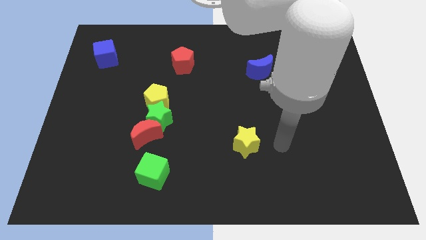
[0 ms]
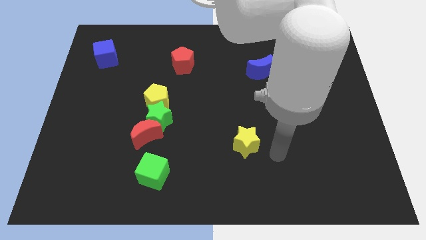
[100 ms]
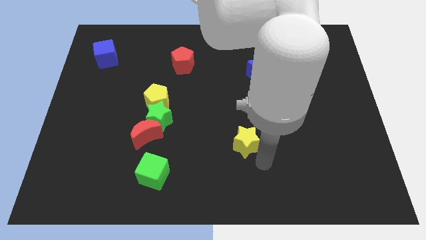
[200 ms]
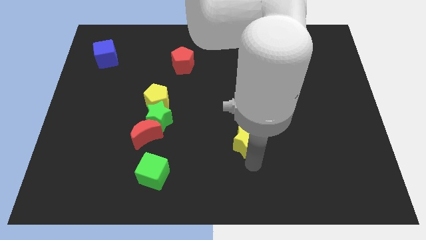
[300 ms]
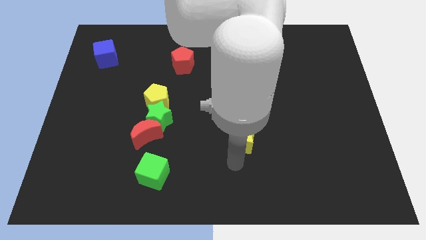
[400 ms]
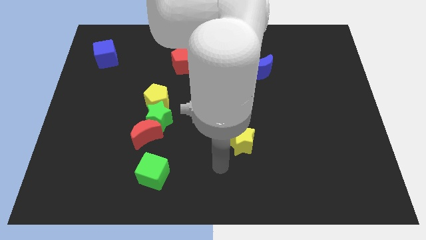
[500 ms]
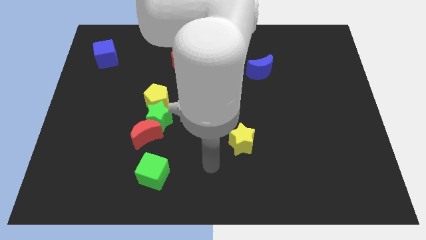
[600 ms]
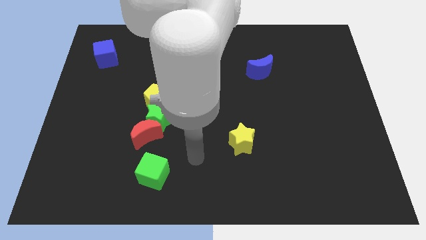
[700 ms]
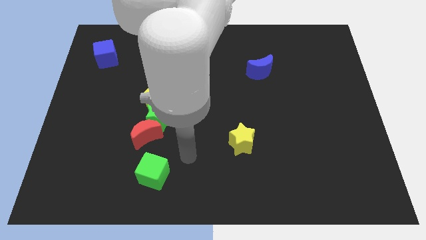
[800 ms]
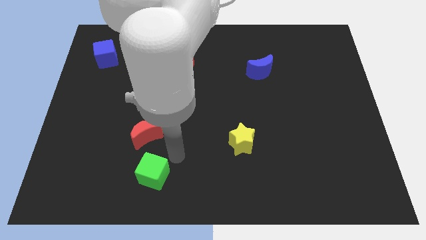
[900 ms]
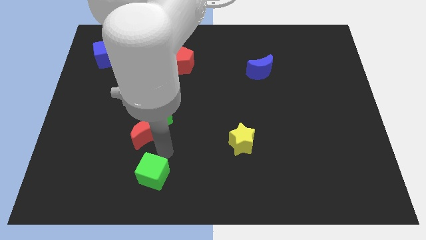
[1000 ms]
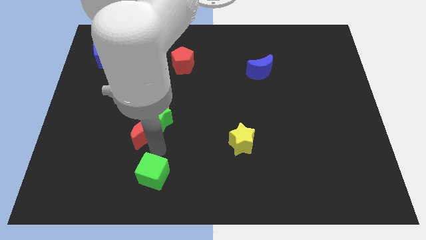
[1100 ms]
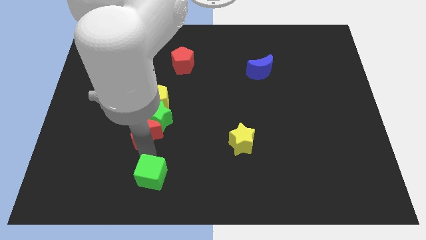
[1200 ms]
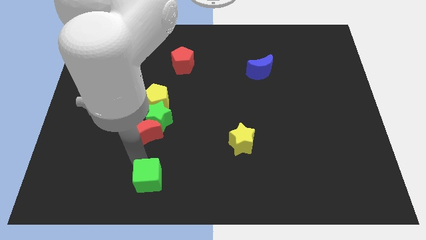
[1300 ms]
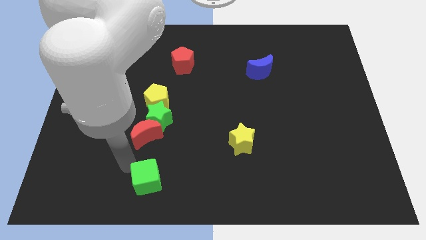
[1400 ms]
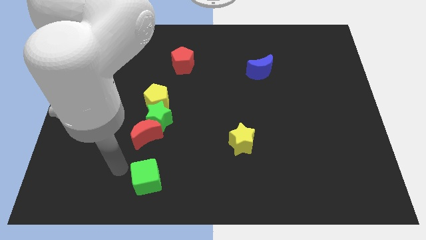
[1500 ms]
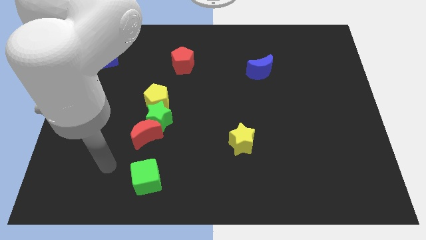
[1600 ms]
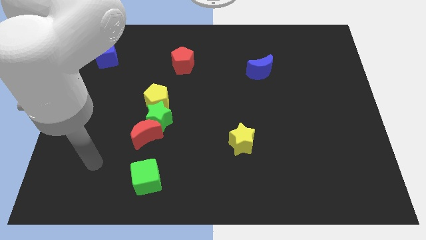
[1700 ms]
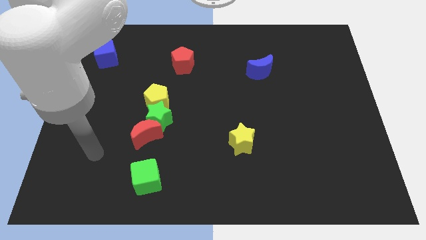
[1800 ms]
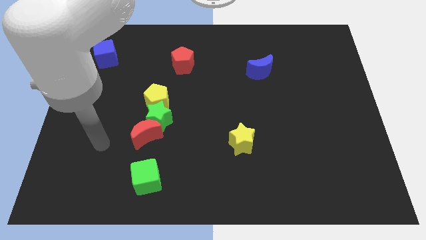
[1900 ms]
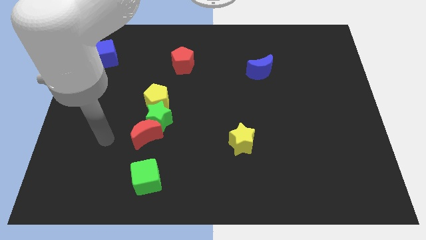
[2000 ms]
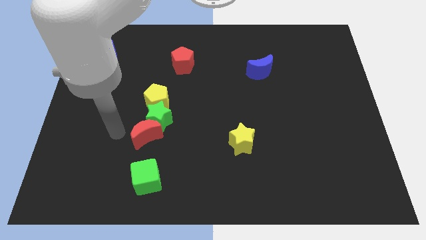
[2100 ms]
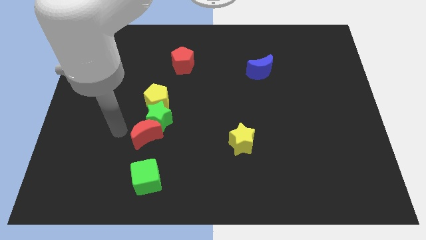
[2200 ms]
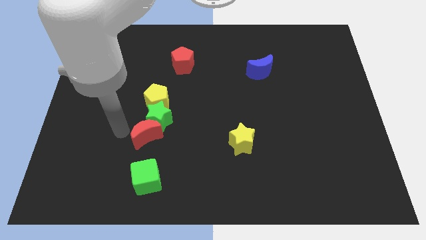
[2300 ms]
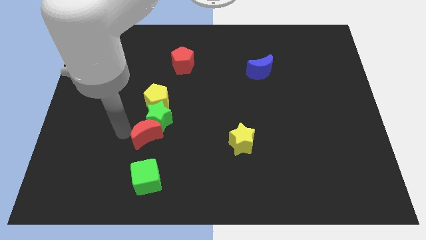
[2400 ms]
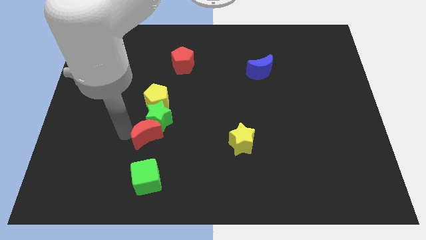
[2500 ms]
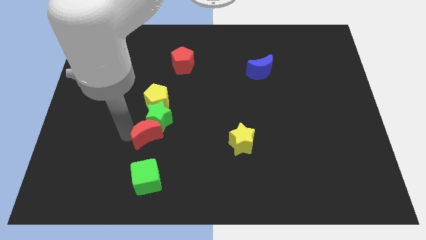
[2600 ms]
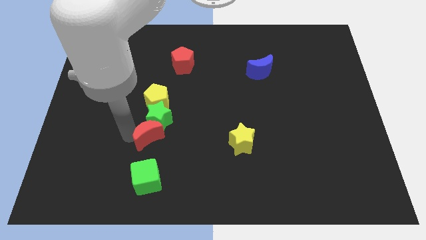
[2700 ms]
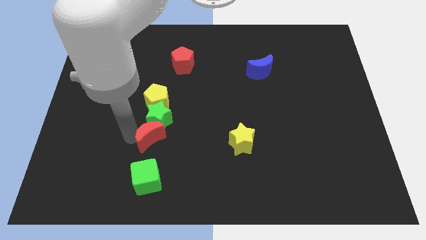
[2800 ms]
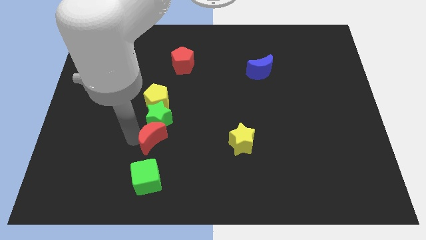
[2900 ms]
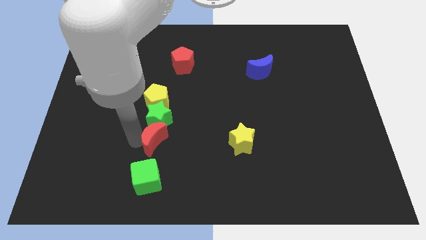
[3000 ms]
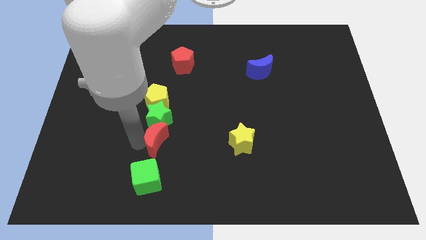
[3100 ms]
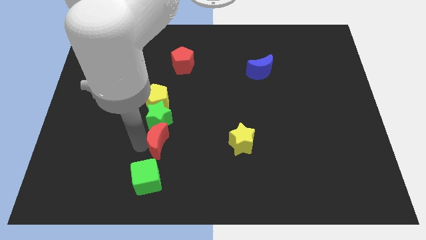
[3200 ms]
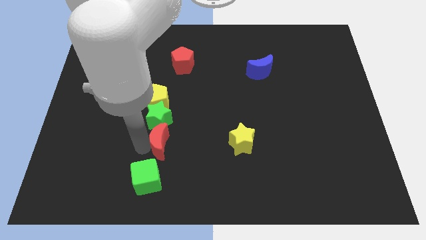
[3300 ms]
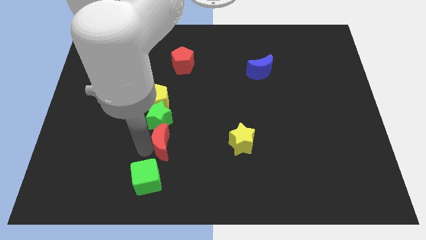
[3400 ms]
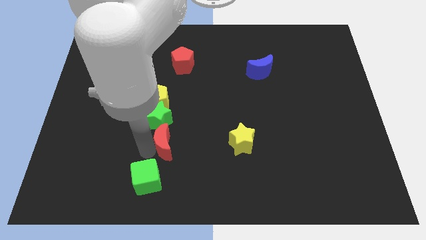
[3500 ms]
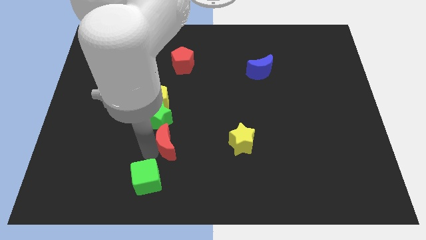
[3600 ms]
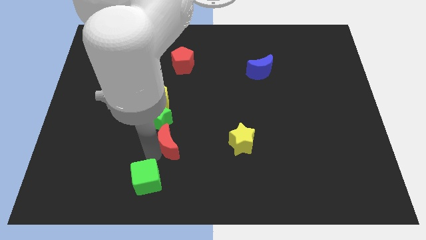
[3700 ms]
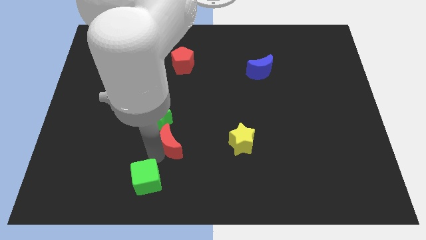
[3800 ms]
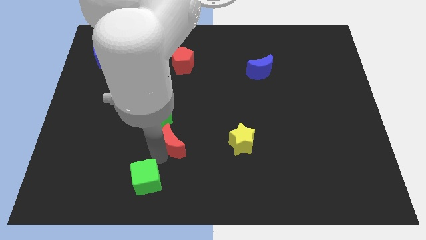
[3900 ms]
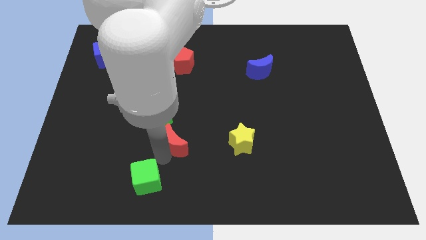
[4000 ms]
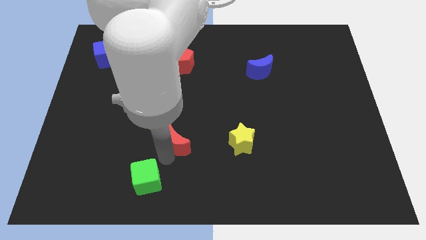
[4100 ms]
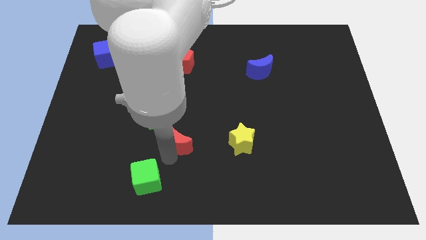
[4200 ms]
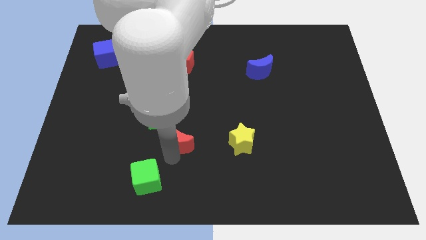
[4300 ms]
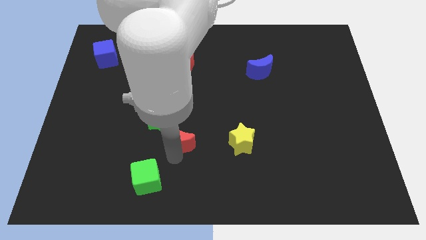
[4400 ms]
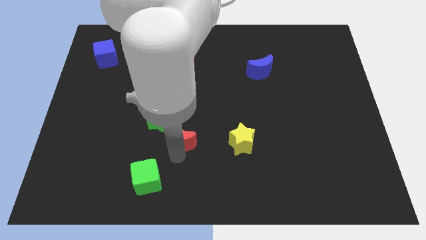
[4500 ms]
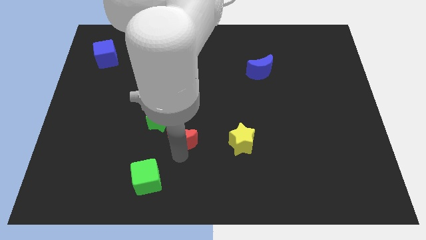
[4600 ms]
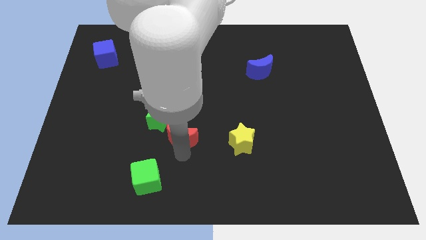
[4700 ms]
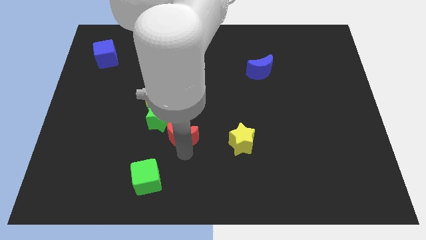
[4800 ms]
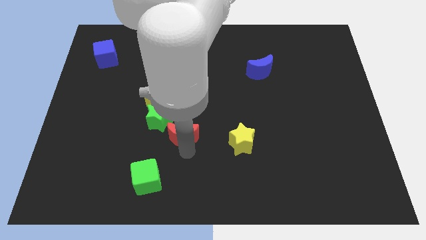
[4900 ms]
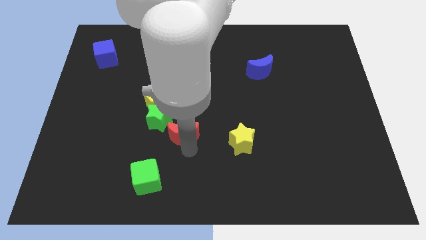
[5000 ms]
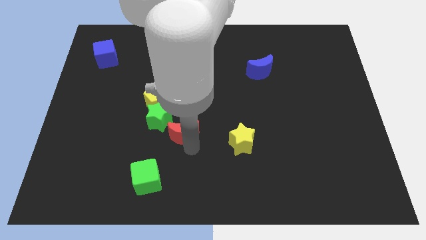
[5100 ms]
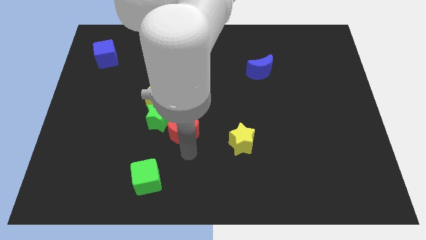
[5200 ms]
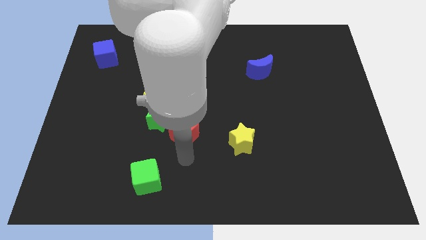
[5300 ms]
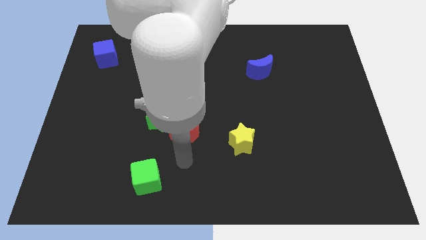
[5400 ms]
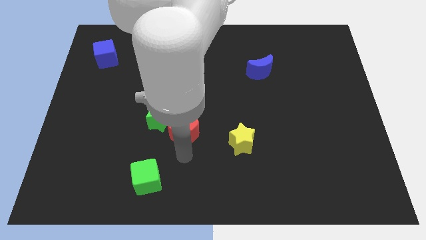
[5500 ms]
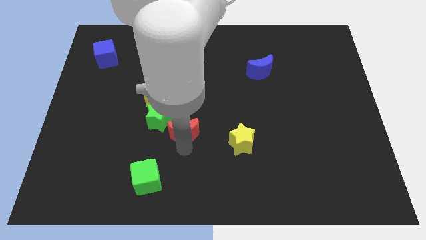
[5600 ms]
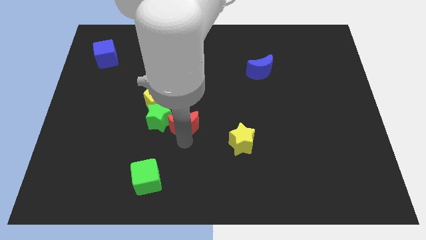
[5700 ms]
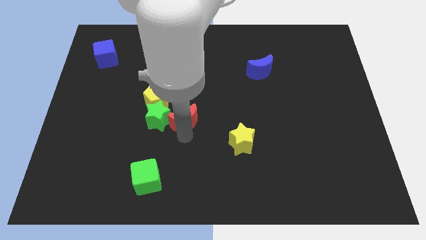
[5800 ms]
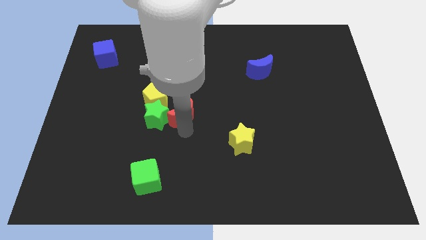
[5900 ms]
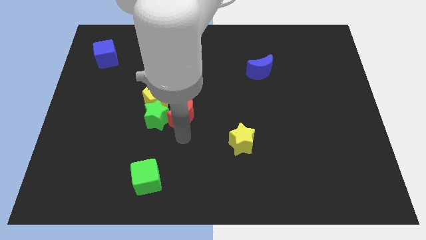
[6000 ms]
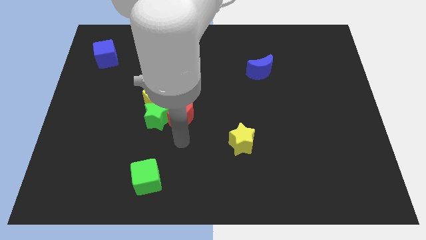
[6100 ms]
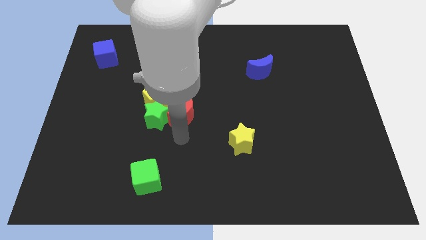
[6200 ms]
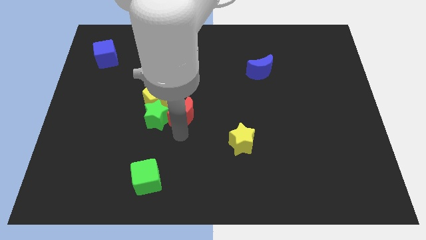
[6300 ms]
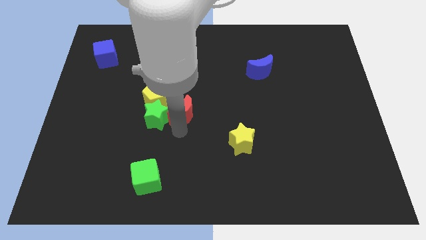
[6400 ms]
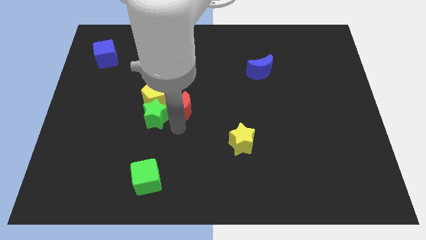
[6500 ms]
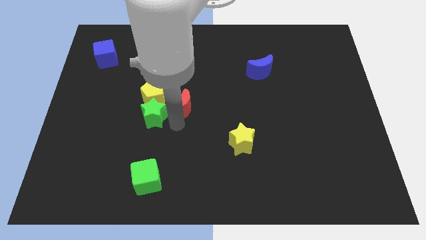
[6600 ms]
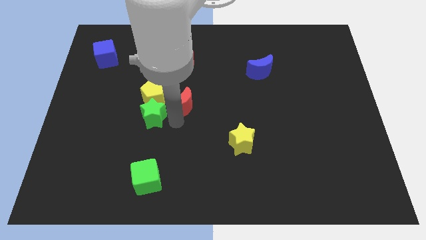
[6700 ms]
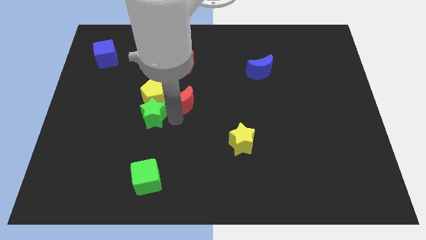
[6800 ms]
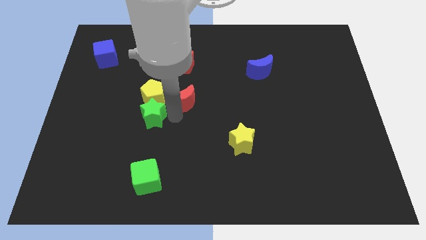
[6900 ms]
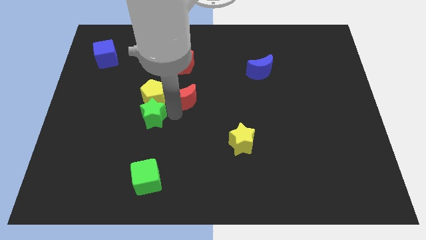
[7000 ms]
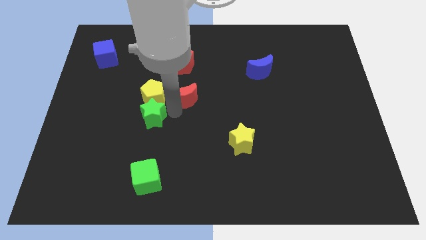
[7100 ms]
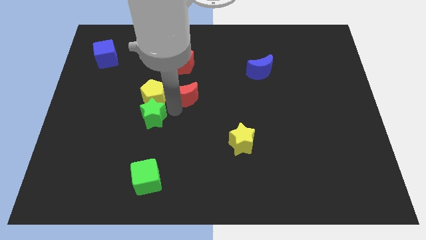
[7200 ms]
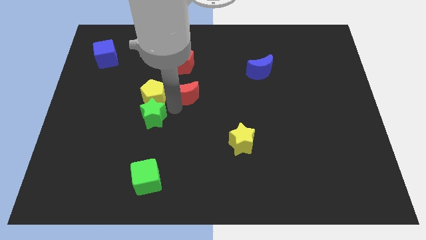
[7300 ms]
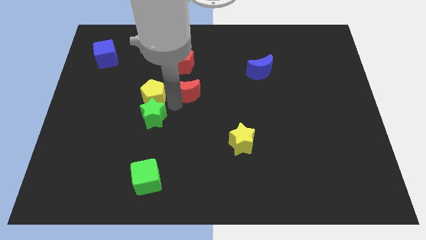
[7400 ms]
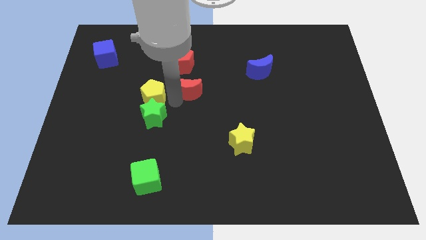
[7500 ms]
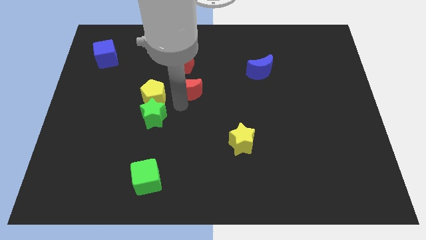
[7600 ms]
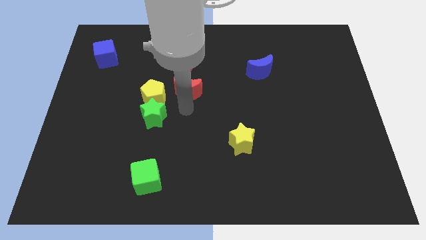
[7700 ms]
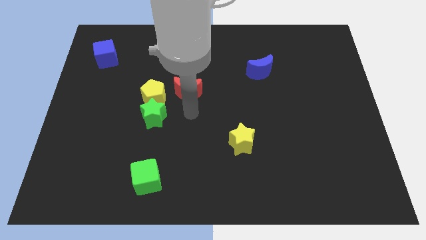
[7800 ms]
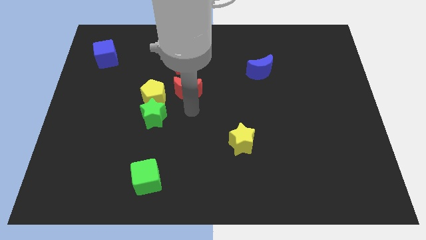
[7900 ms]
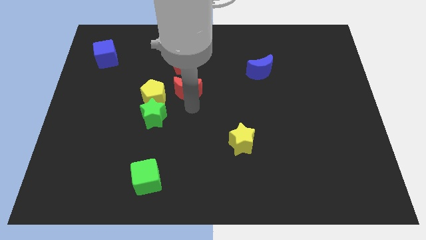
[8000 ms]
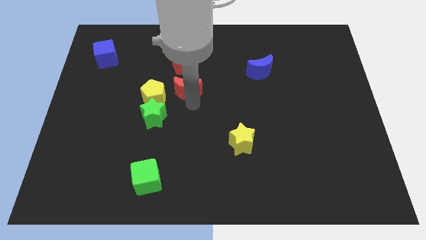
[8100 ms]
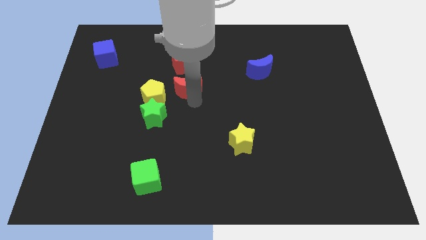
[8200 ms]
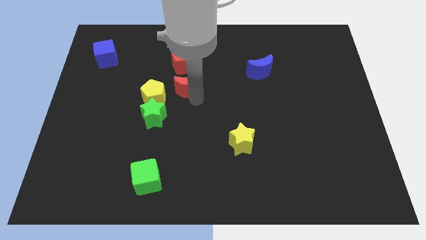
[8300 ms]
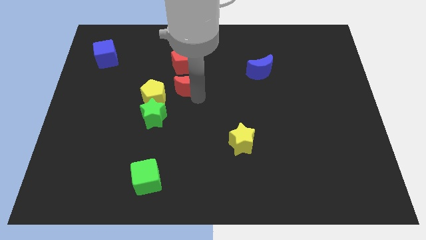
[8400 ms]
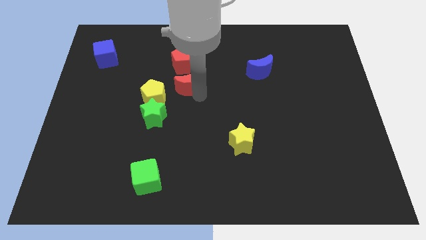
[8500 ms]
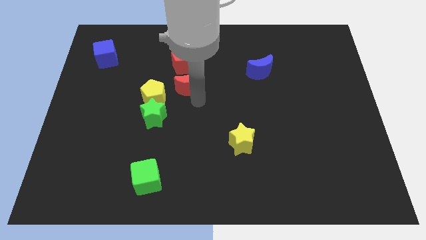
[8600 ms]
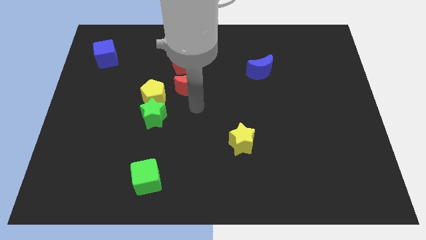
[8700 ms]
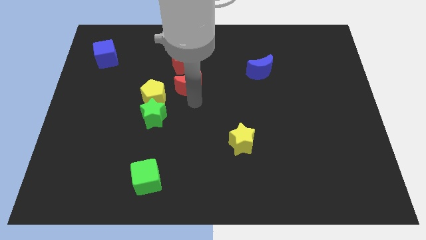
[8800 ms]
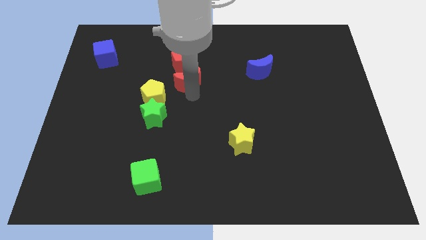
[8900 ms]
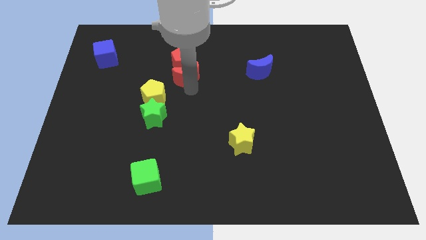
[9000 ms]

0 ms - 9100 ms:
push the red moon to the red pentagon
